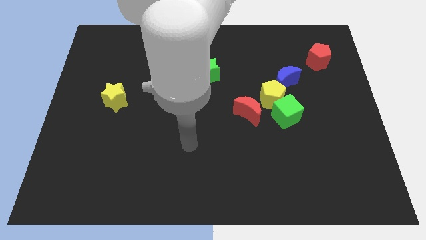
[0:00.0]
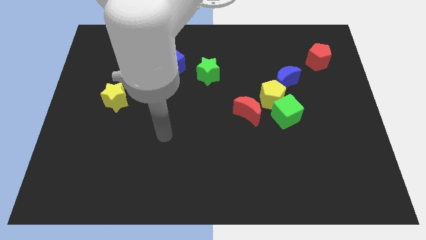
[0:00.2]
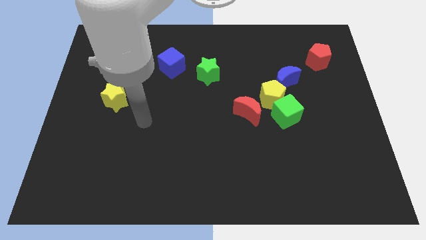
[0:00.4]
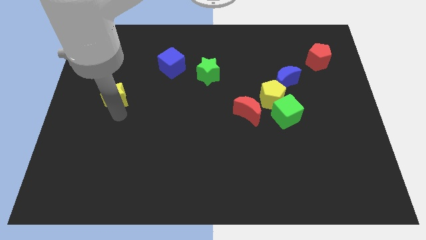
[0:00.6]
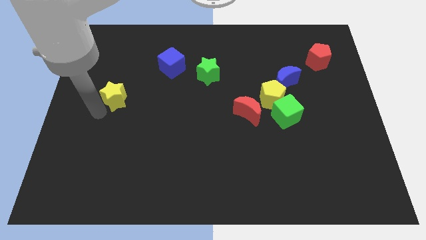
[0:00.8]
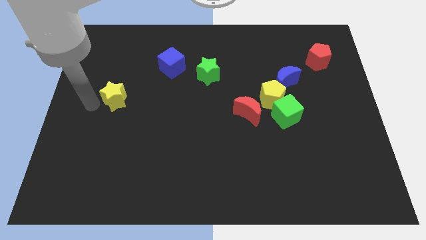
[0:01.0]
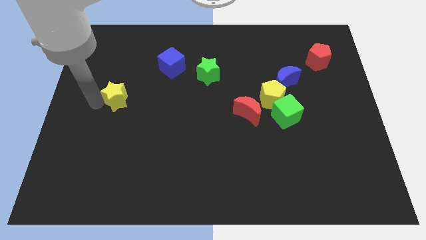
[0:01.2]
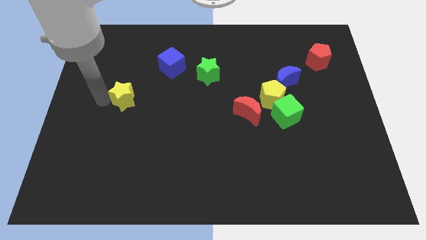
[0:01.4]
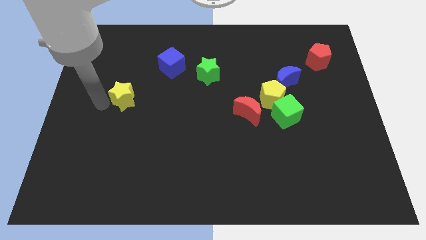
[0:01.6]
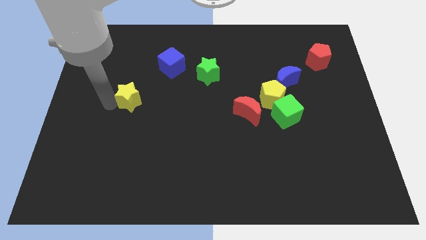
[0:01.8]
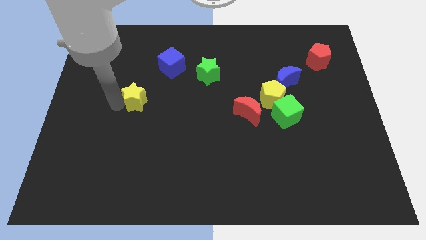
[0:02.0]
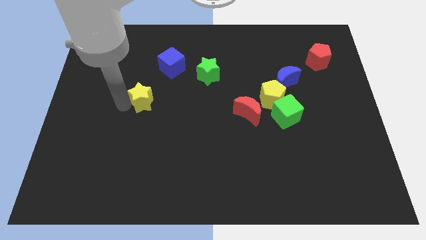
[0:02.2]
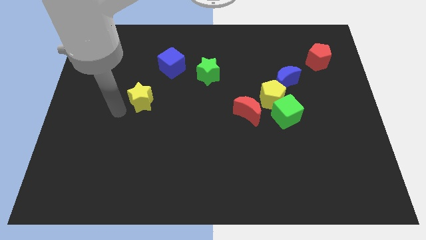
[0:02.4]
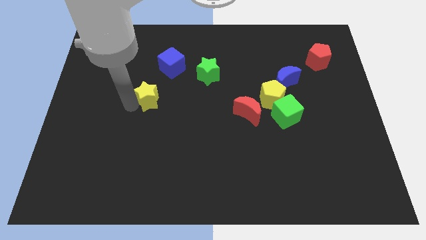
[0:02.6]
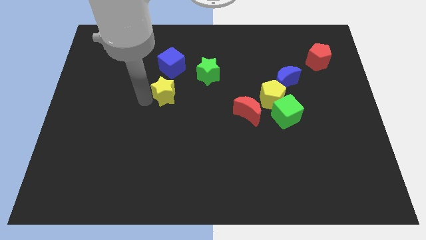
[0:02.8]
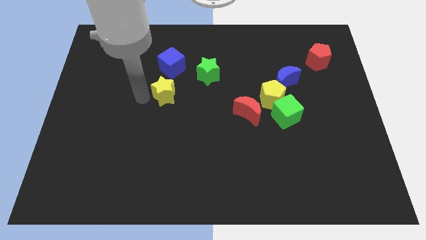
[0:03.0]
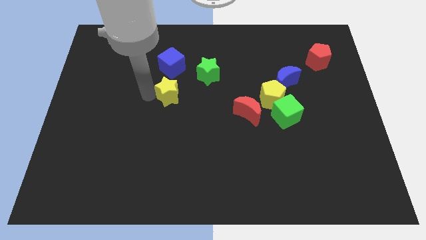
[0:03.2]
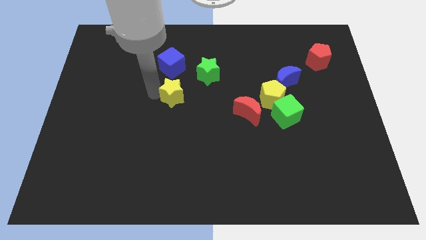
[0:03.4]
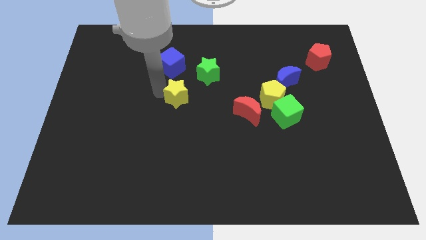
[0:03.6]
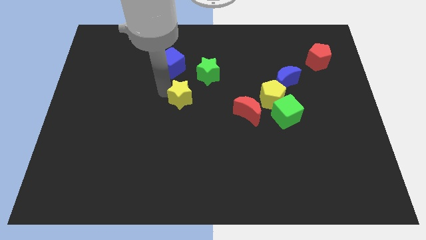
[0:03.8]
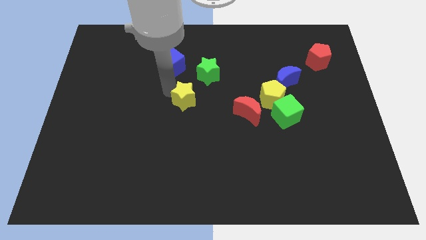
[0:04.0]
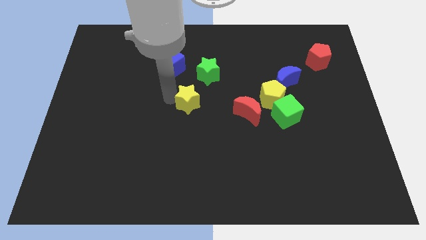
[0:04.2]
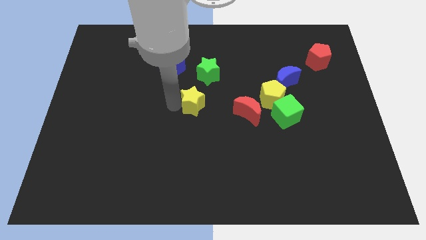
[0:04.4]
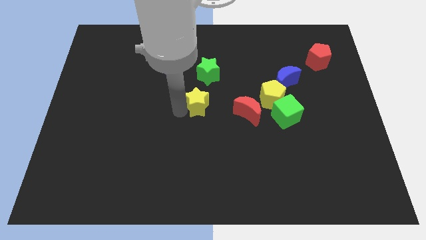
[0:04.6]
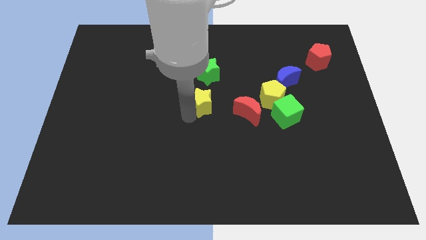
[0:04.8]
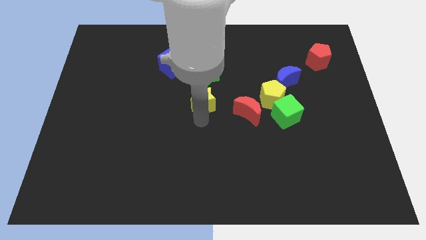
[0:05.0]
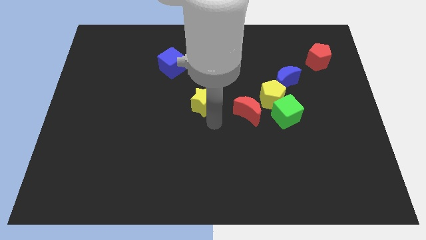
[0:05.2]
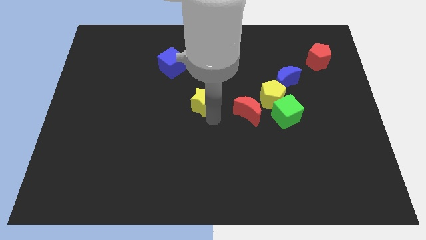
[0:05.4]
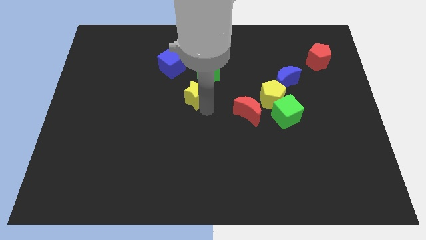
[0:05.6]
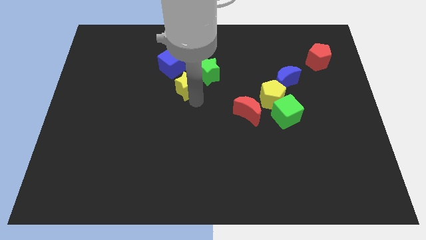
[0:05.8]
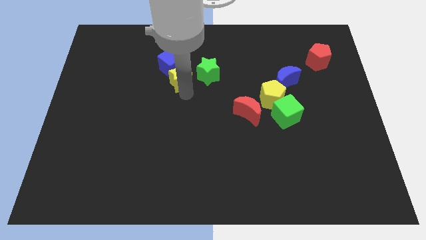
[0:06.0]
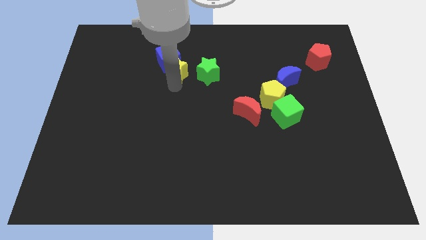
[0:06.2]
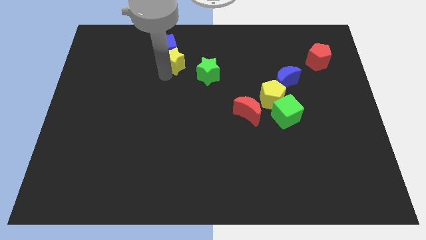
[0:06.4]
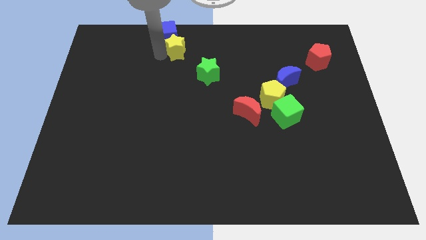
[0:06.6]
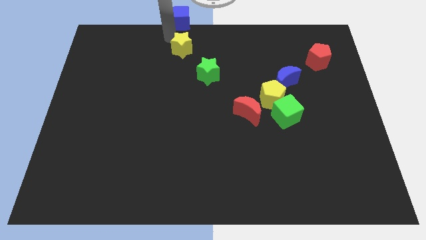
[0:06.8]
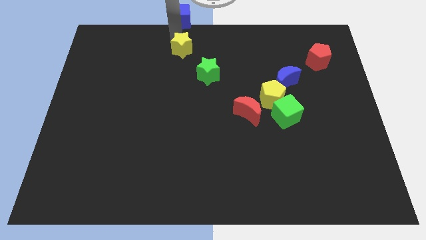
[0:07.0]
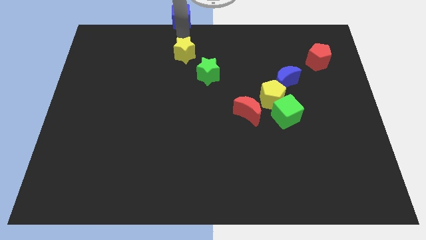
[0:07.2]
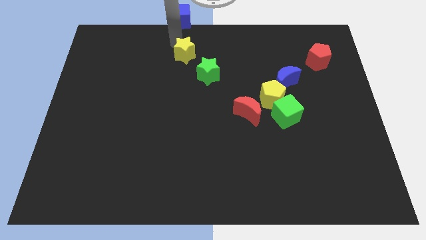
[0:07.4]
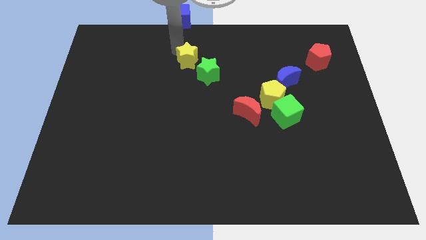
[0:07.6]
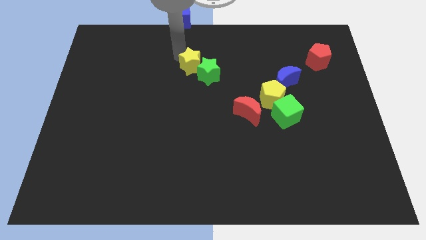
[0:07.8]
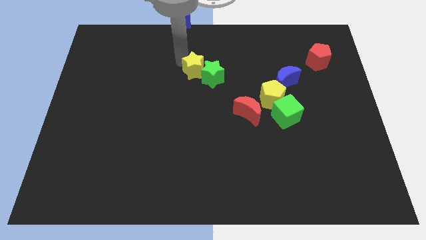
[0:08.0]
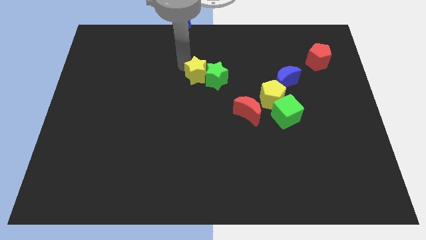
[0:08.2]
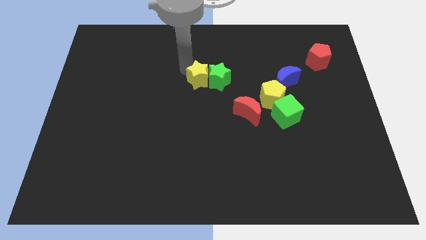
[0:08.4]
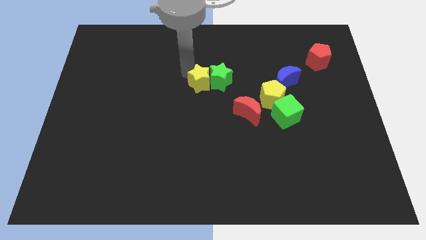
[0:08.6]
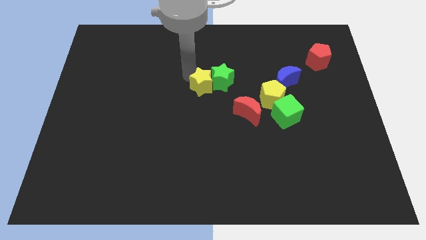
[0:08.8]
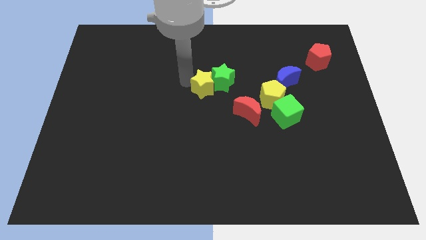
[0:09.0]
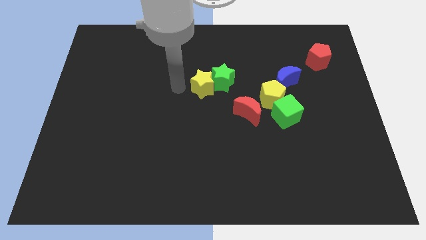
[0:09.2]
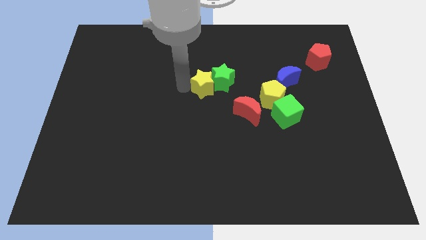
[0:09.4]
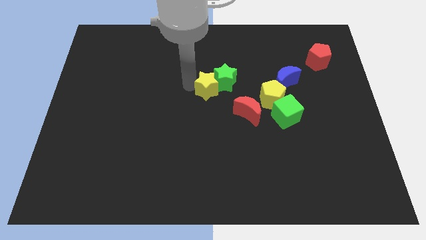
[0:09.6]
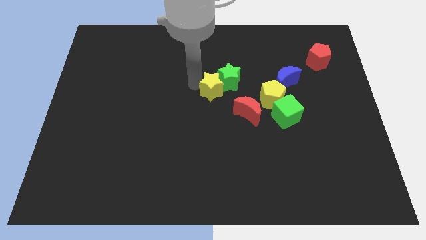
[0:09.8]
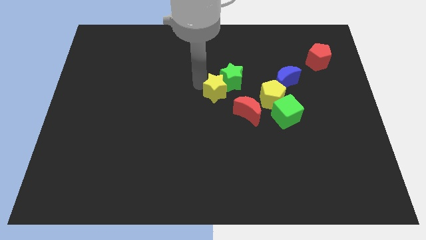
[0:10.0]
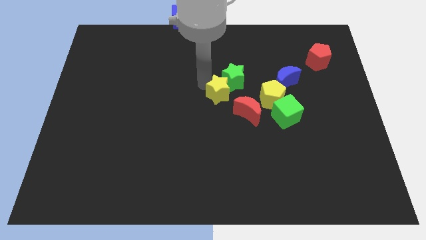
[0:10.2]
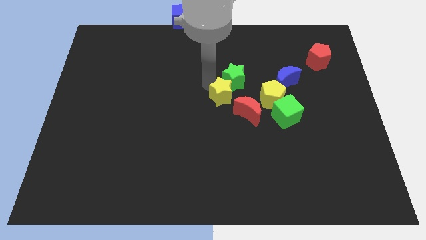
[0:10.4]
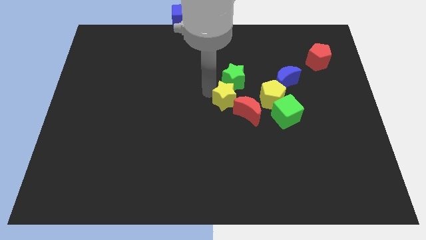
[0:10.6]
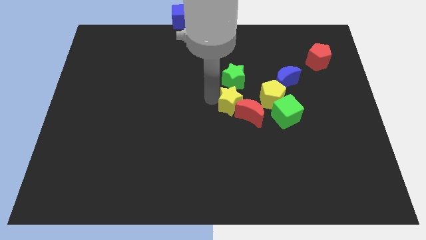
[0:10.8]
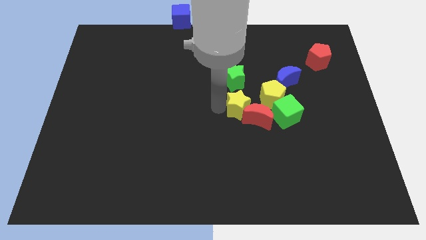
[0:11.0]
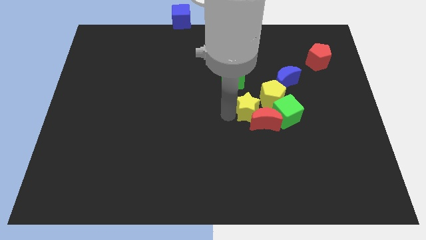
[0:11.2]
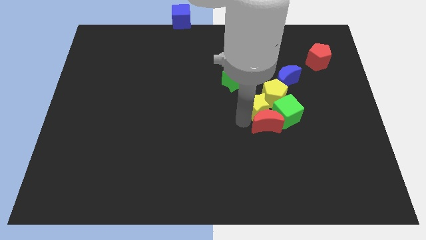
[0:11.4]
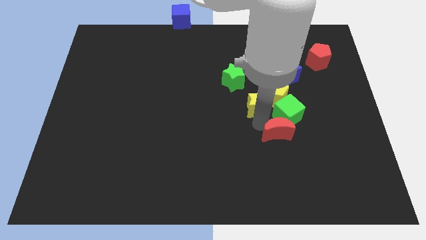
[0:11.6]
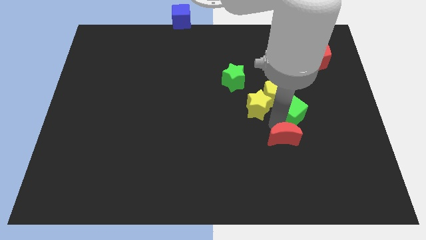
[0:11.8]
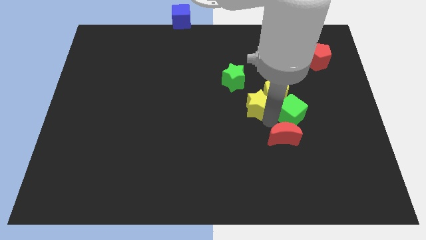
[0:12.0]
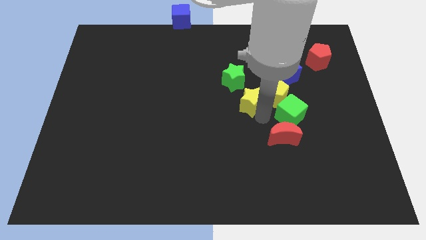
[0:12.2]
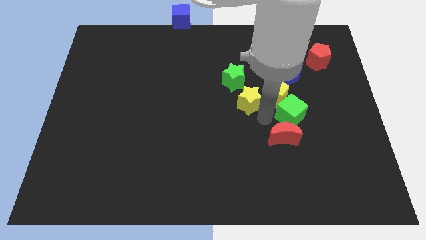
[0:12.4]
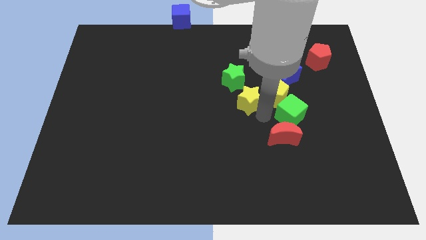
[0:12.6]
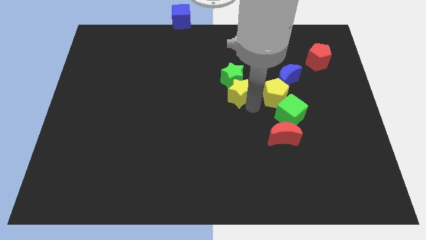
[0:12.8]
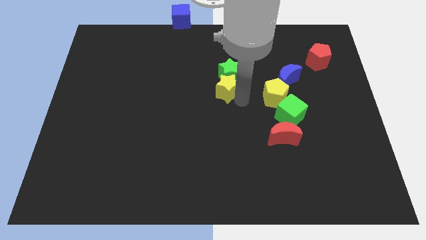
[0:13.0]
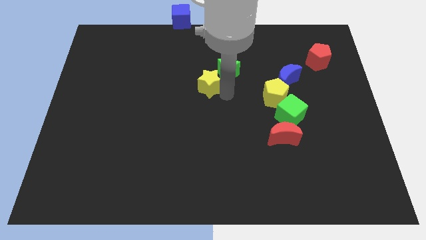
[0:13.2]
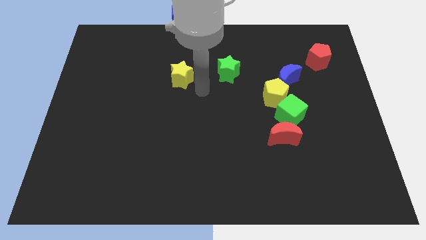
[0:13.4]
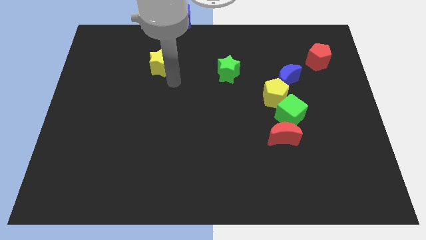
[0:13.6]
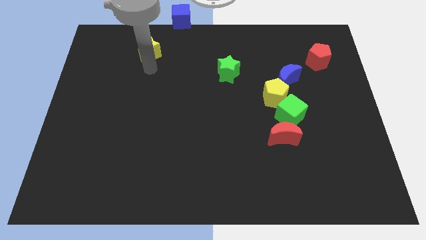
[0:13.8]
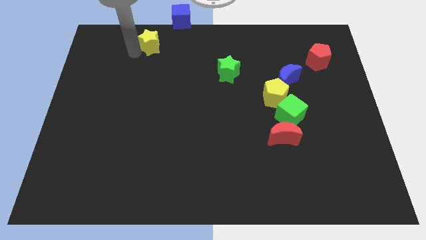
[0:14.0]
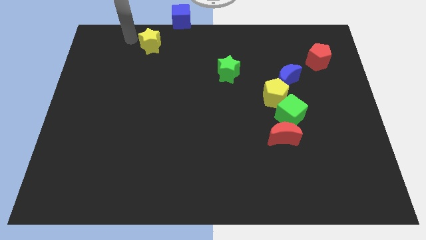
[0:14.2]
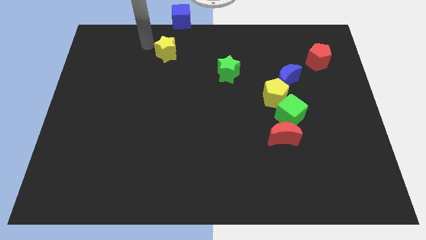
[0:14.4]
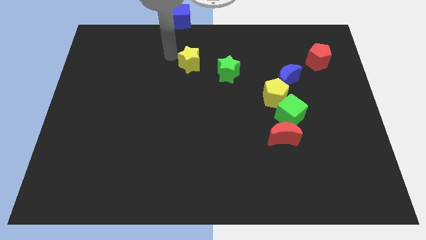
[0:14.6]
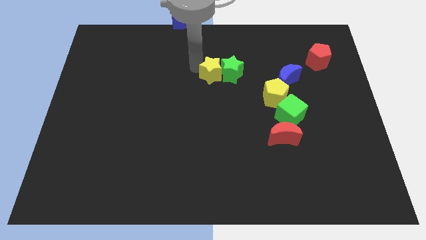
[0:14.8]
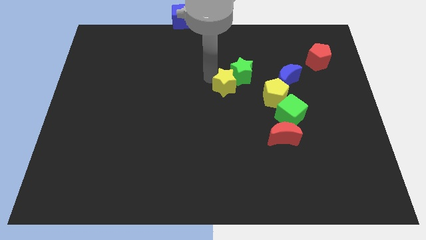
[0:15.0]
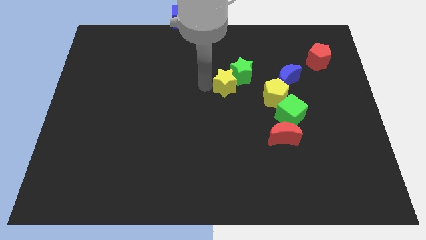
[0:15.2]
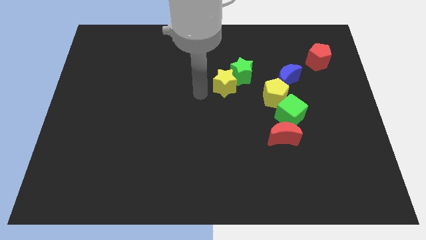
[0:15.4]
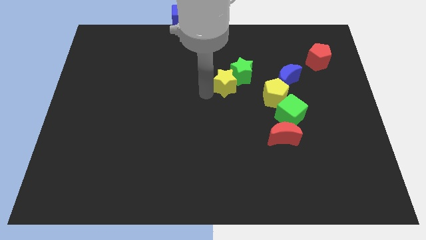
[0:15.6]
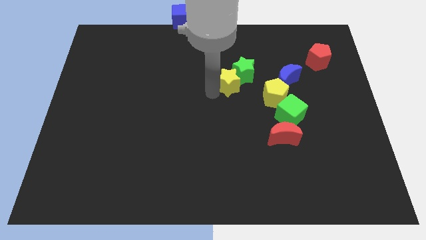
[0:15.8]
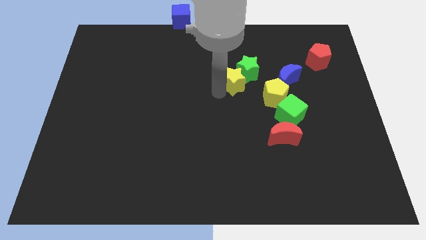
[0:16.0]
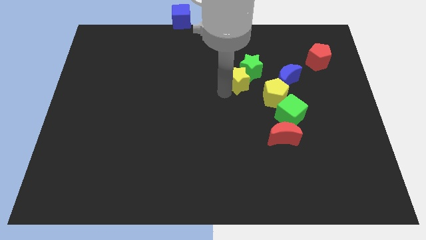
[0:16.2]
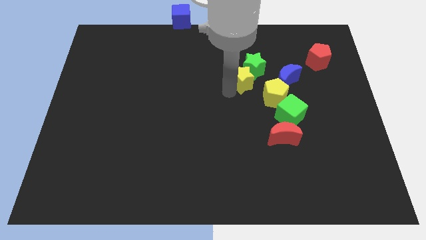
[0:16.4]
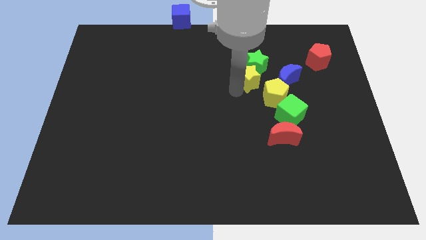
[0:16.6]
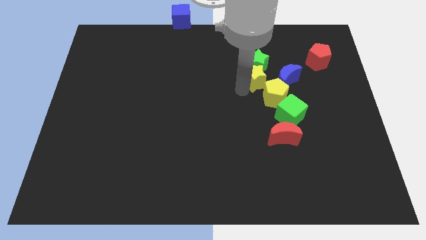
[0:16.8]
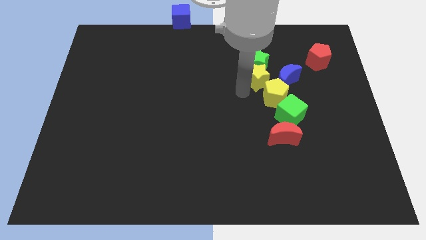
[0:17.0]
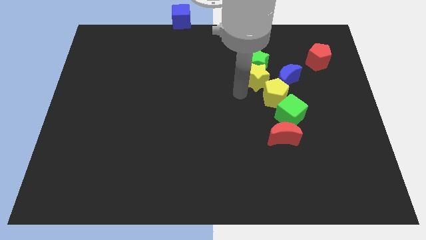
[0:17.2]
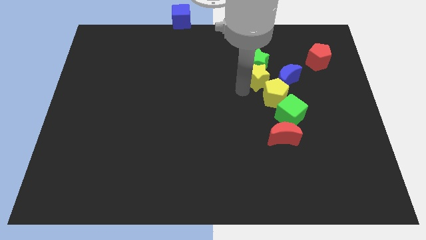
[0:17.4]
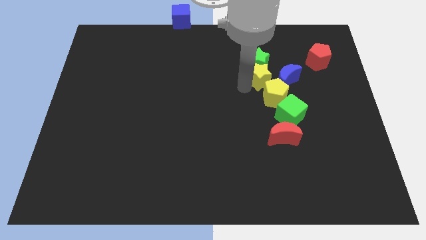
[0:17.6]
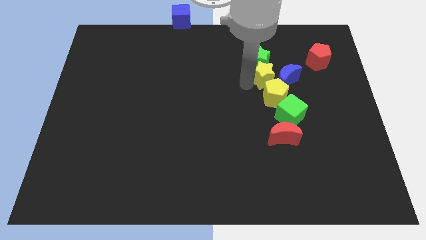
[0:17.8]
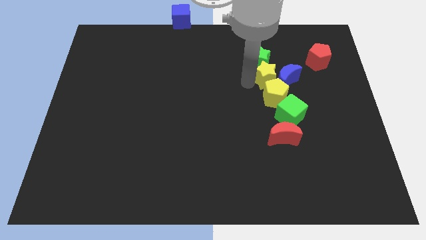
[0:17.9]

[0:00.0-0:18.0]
push the yellow star to the top side of the green cube
